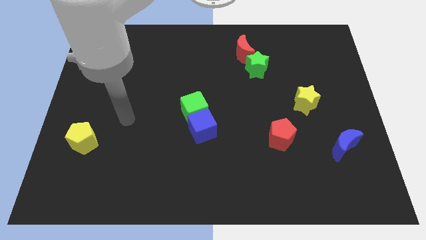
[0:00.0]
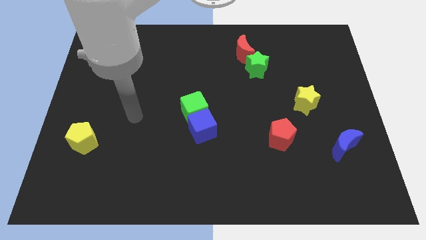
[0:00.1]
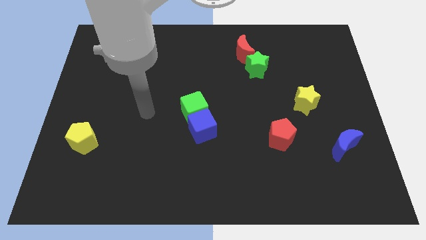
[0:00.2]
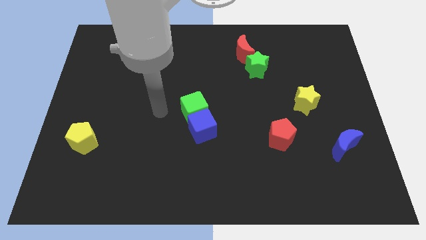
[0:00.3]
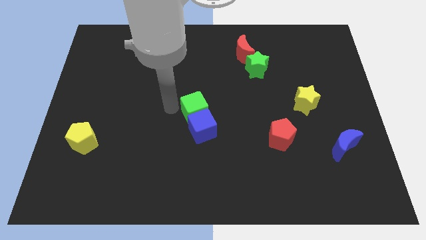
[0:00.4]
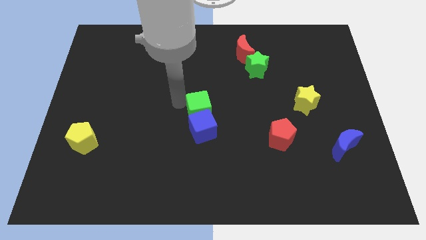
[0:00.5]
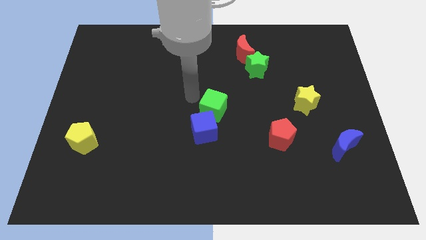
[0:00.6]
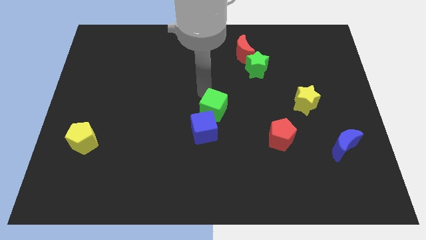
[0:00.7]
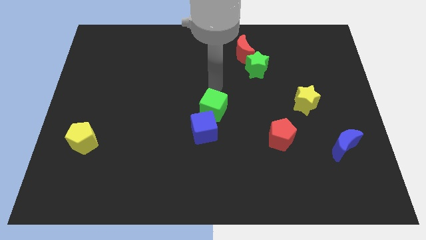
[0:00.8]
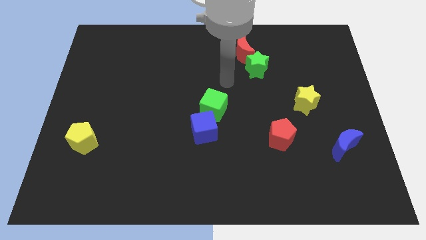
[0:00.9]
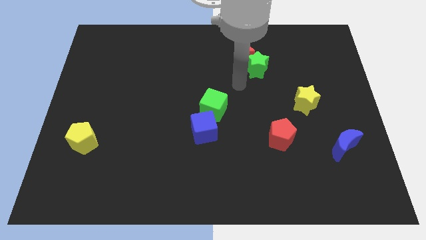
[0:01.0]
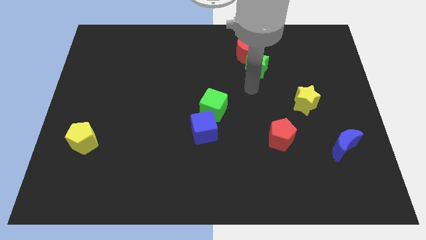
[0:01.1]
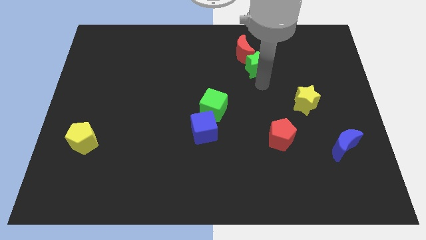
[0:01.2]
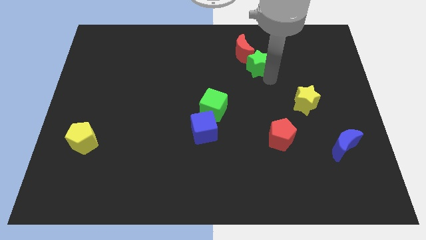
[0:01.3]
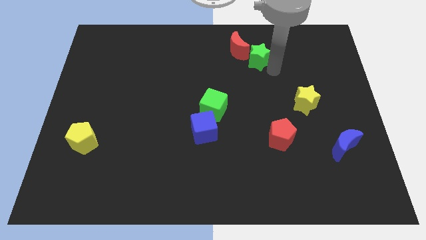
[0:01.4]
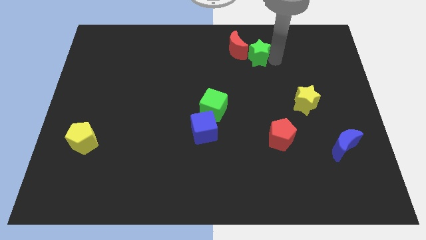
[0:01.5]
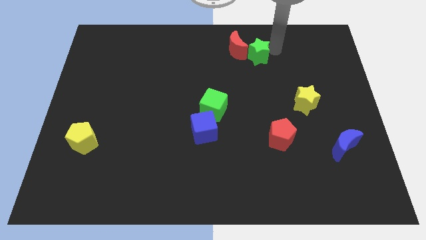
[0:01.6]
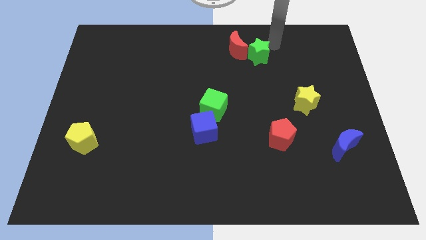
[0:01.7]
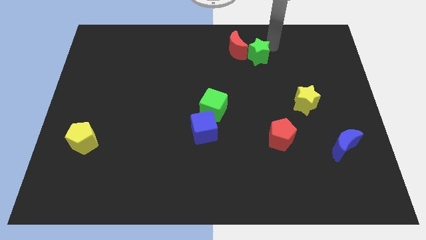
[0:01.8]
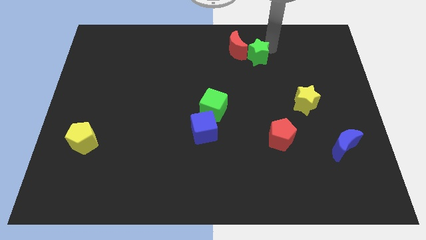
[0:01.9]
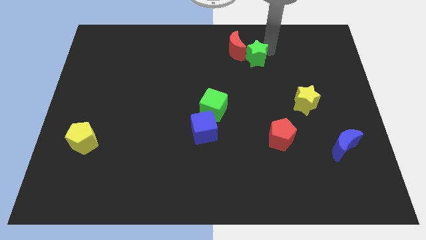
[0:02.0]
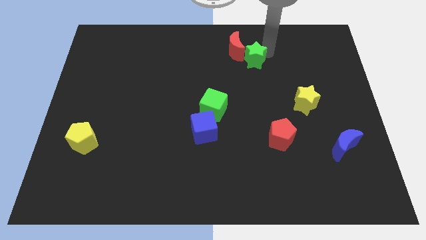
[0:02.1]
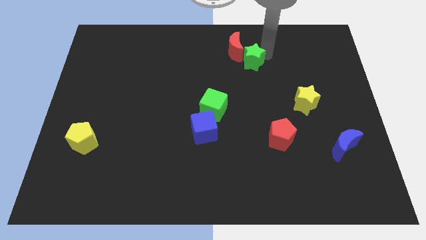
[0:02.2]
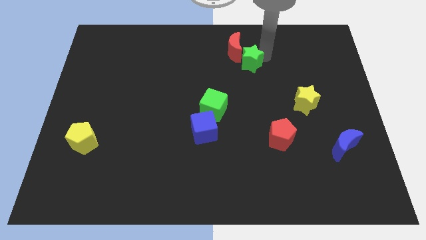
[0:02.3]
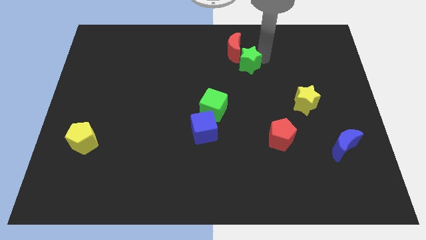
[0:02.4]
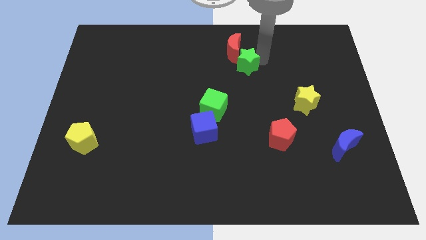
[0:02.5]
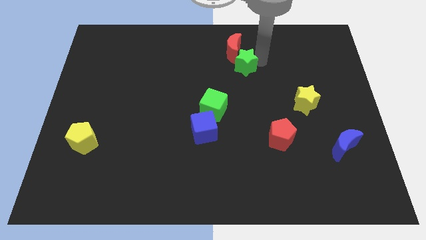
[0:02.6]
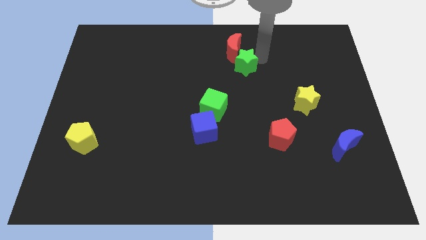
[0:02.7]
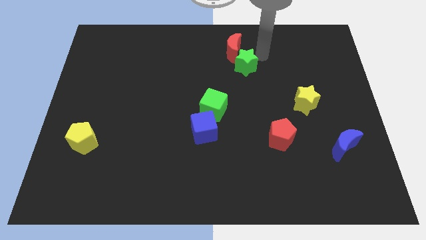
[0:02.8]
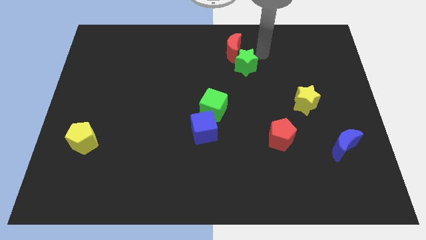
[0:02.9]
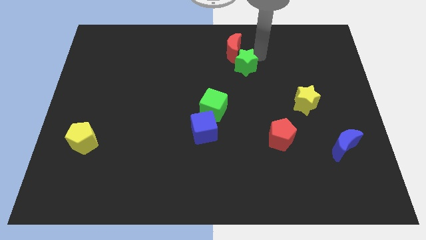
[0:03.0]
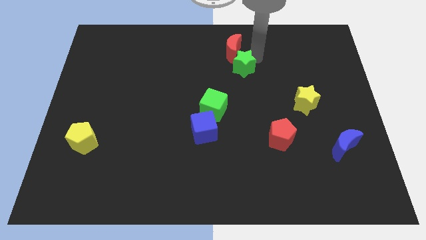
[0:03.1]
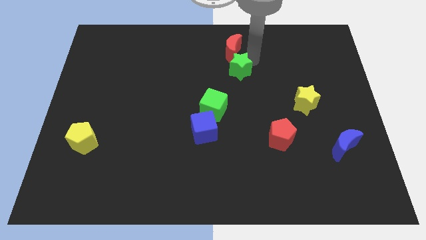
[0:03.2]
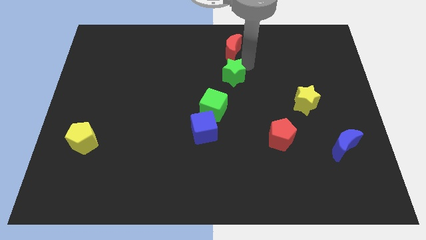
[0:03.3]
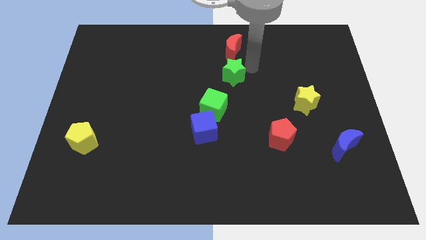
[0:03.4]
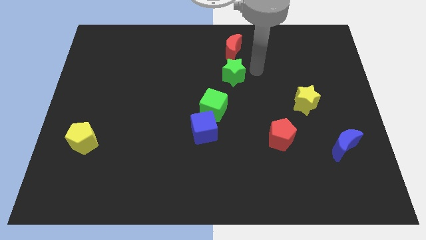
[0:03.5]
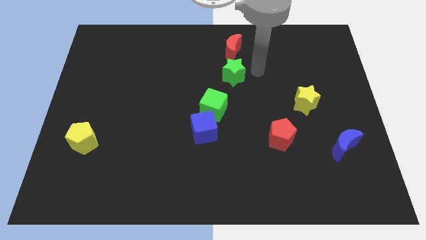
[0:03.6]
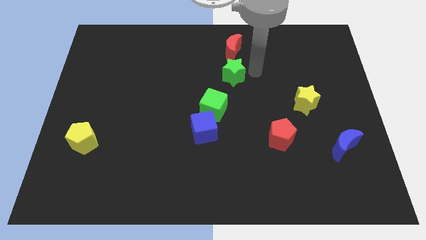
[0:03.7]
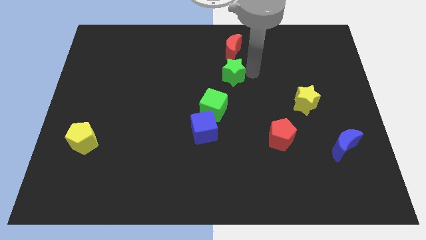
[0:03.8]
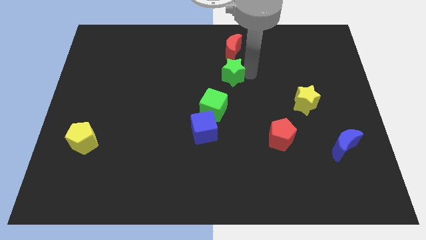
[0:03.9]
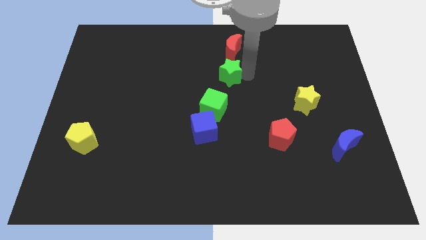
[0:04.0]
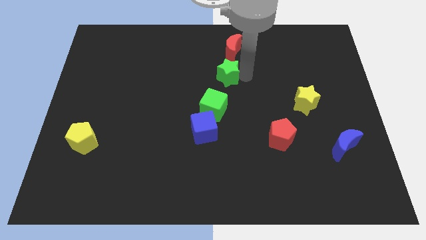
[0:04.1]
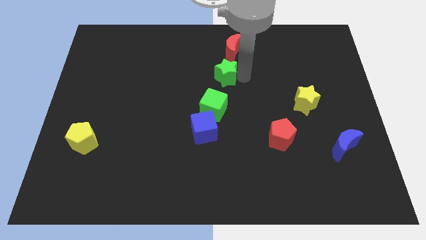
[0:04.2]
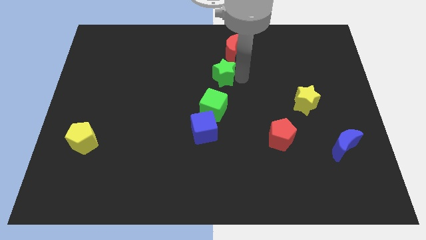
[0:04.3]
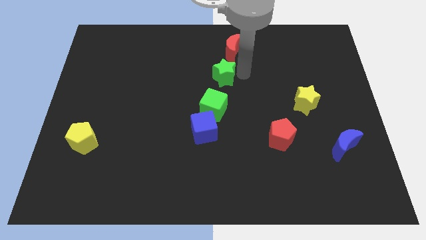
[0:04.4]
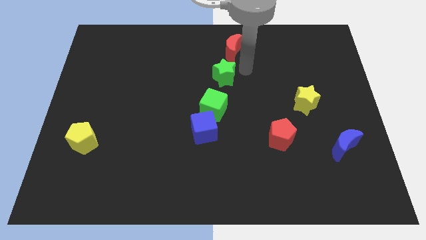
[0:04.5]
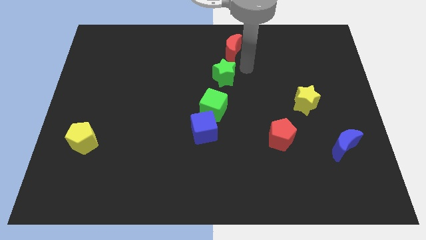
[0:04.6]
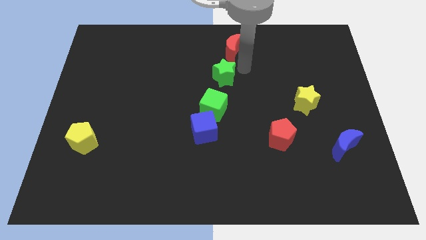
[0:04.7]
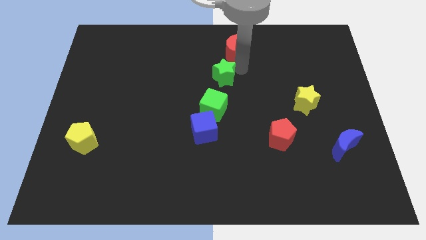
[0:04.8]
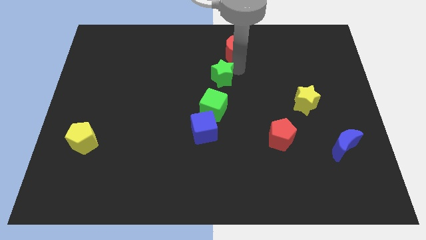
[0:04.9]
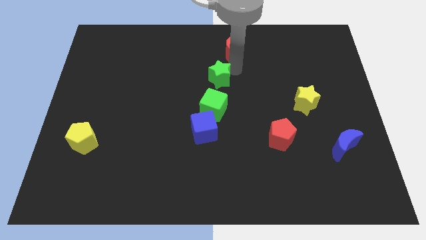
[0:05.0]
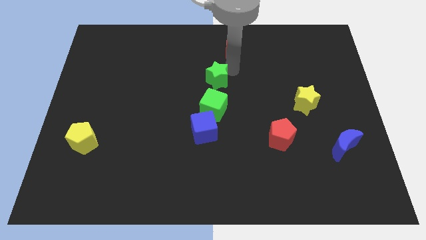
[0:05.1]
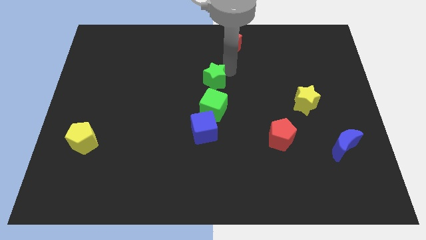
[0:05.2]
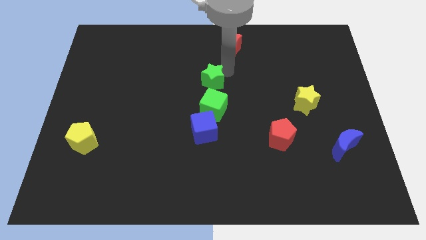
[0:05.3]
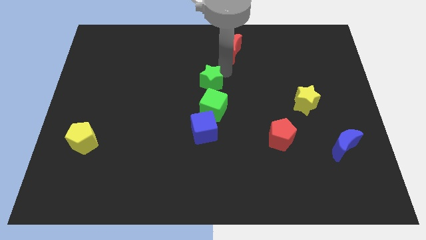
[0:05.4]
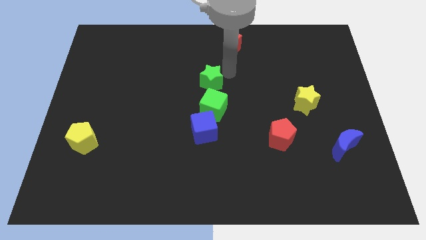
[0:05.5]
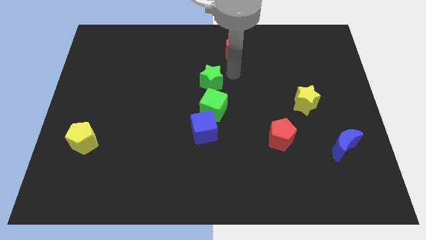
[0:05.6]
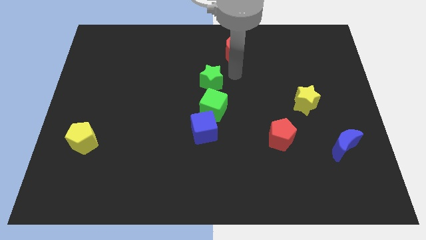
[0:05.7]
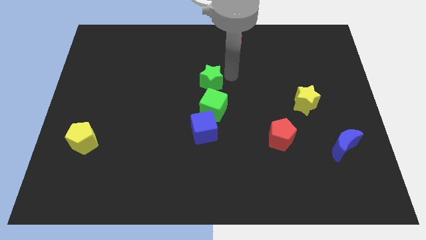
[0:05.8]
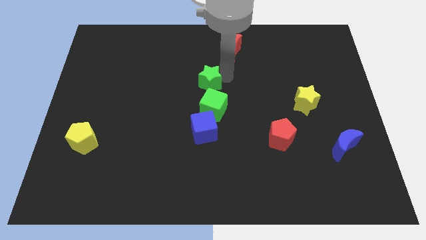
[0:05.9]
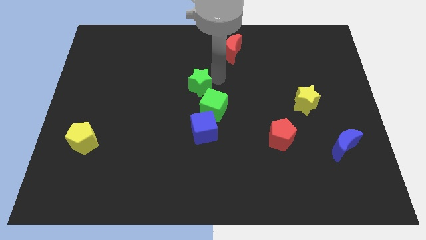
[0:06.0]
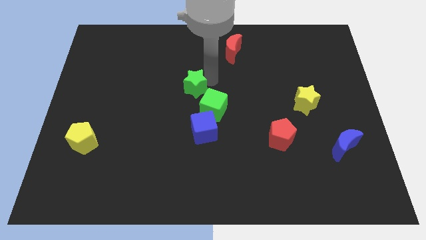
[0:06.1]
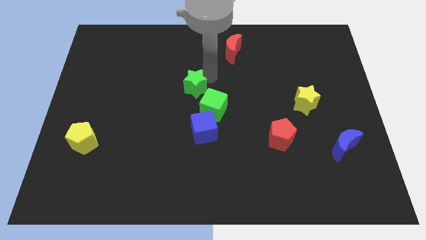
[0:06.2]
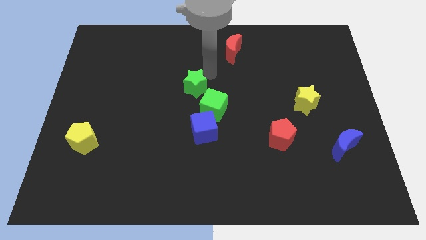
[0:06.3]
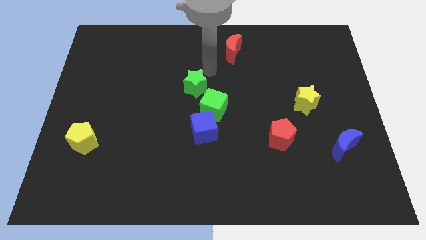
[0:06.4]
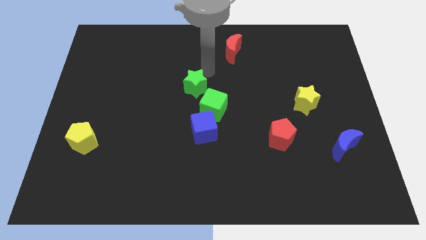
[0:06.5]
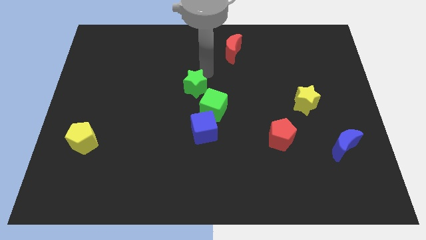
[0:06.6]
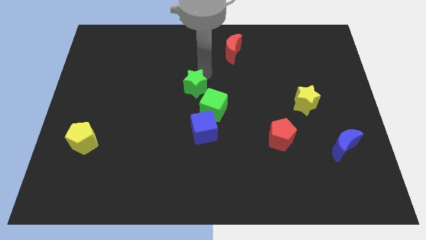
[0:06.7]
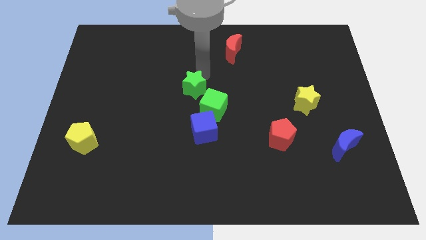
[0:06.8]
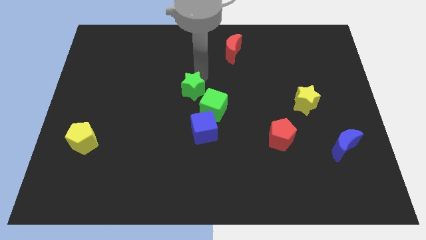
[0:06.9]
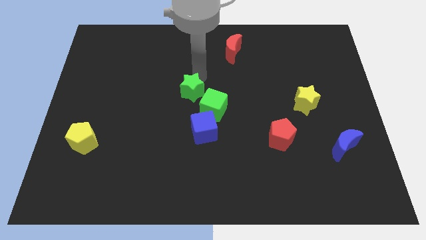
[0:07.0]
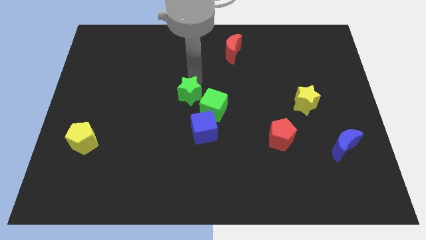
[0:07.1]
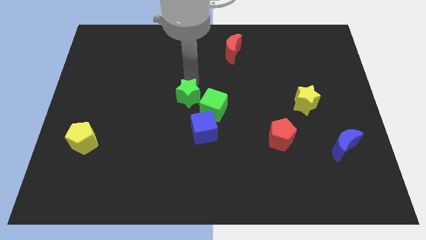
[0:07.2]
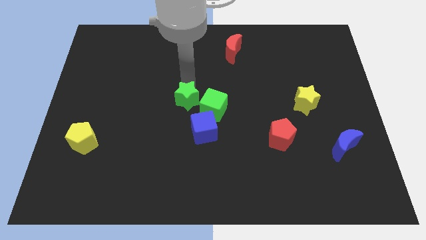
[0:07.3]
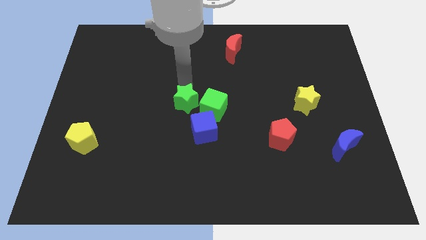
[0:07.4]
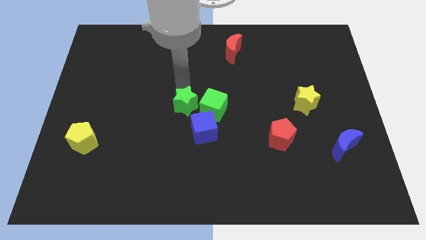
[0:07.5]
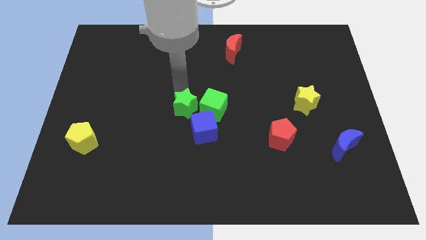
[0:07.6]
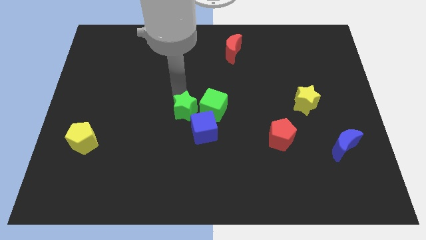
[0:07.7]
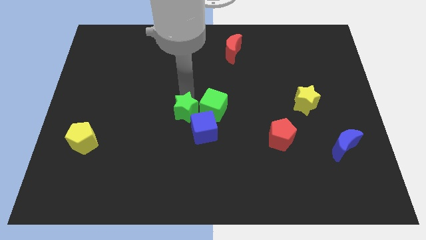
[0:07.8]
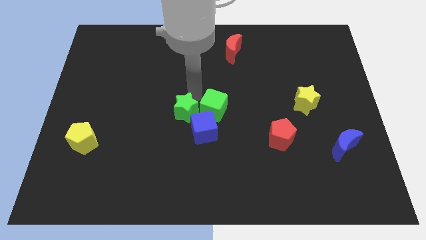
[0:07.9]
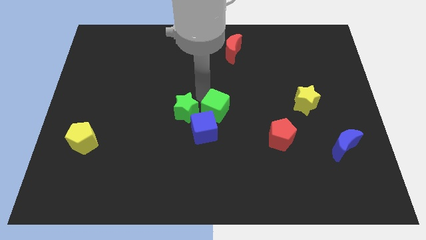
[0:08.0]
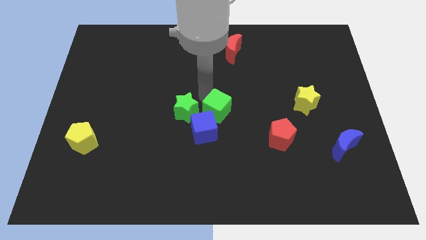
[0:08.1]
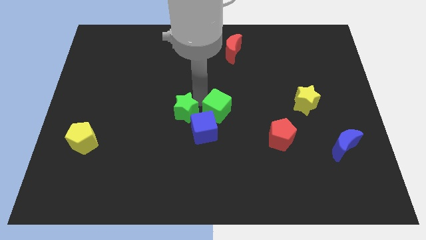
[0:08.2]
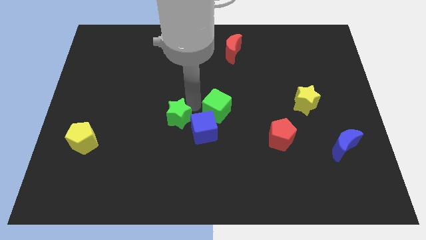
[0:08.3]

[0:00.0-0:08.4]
put the green star to the left of the blue cube
